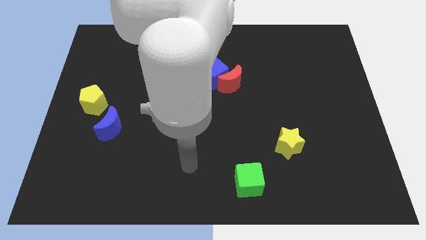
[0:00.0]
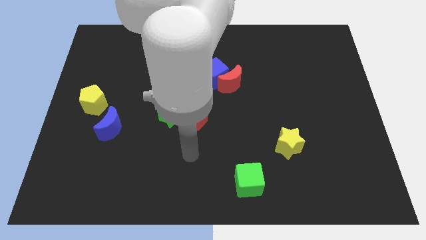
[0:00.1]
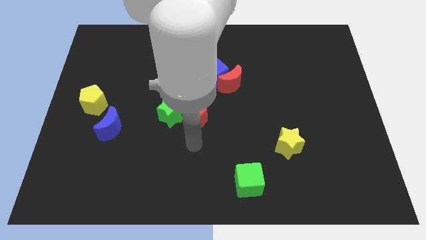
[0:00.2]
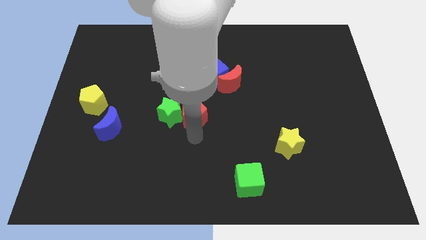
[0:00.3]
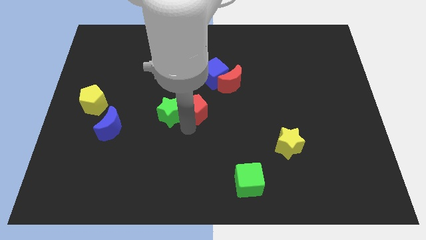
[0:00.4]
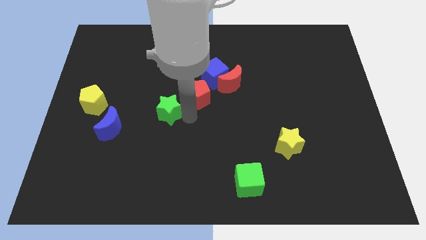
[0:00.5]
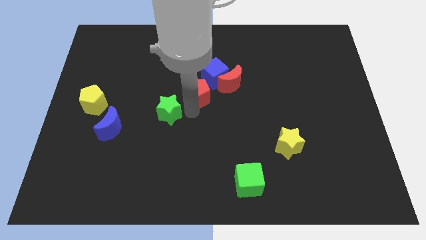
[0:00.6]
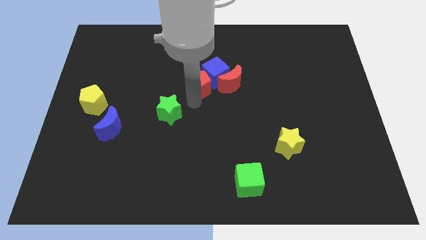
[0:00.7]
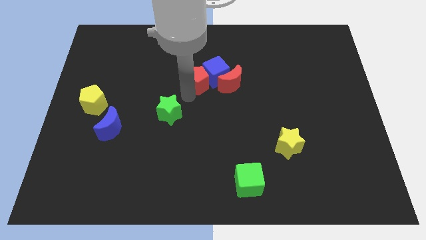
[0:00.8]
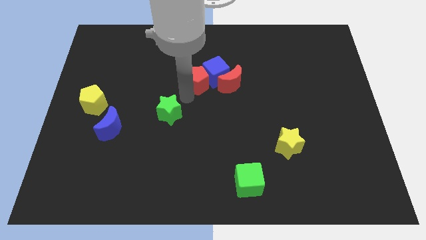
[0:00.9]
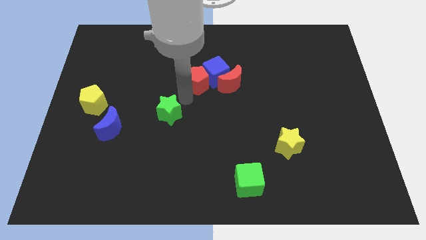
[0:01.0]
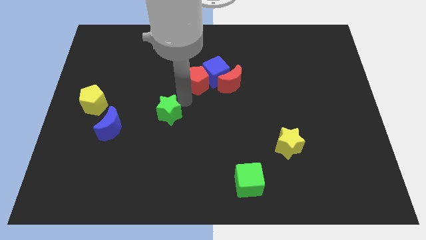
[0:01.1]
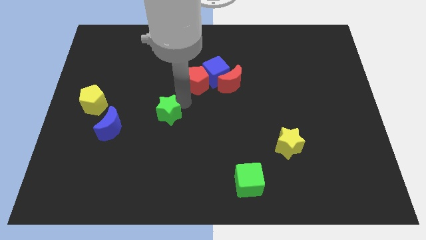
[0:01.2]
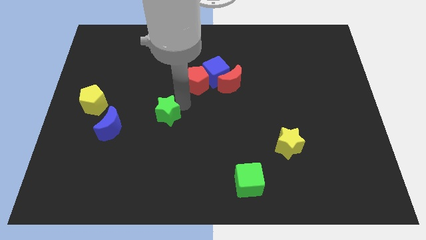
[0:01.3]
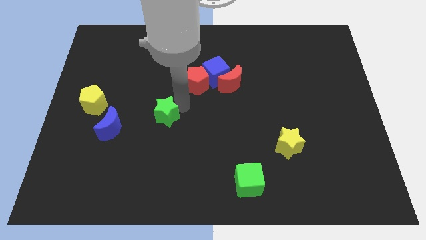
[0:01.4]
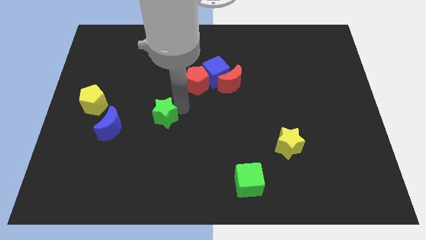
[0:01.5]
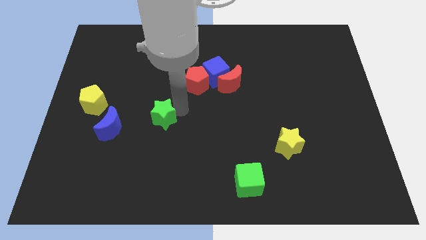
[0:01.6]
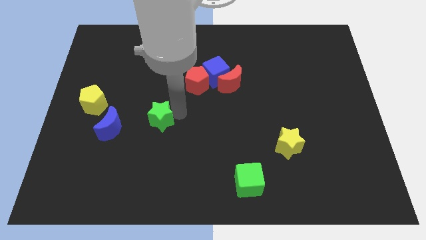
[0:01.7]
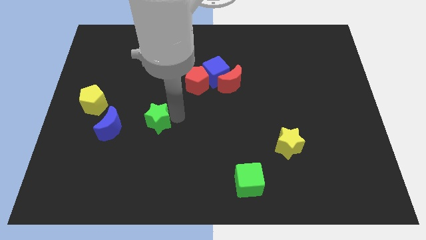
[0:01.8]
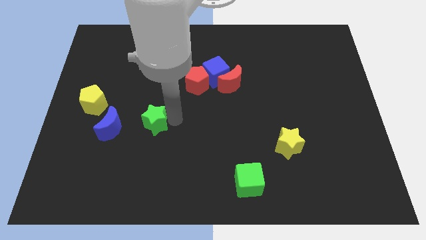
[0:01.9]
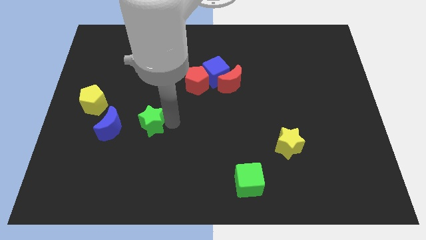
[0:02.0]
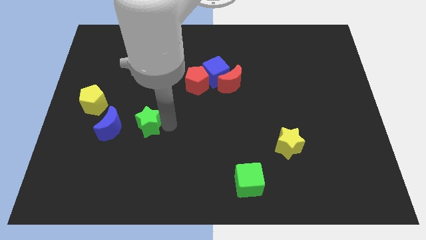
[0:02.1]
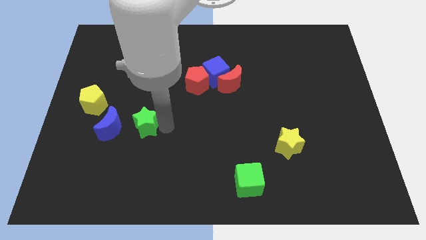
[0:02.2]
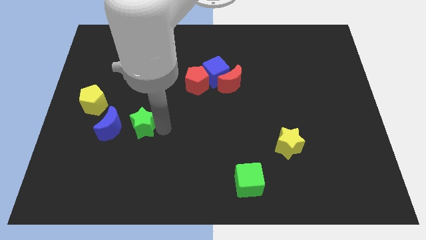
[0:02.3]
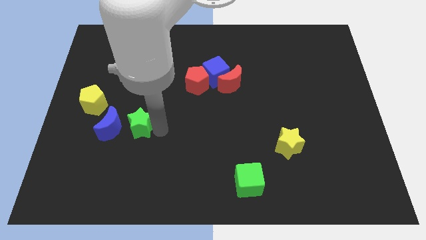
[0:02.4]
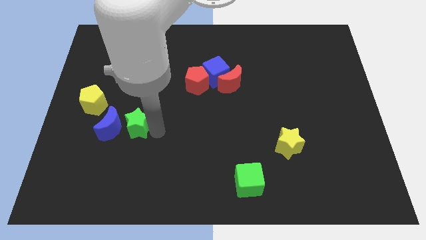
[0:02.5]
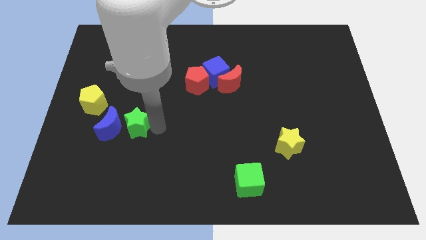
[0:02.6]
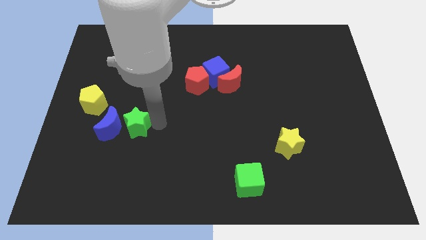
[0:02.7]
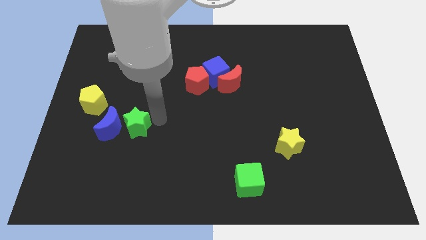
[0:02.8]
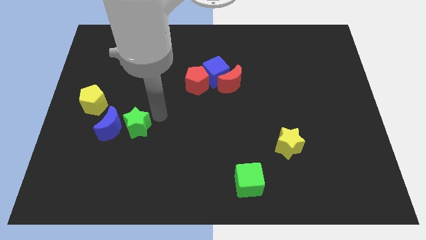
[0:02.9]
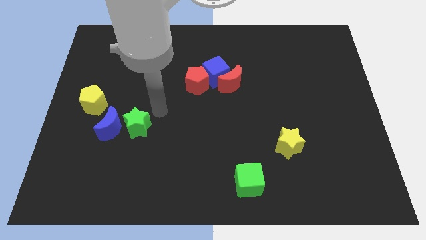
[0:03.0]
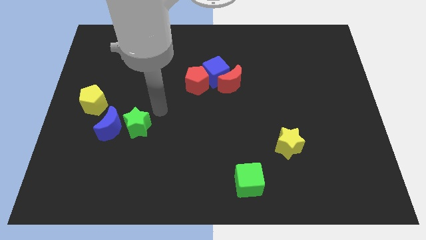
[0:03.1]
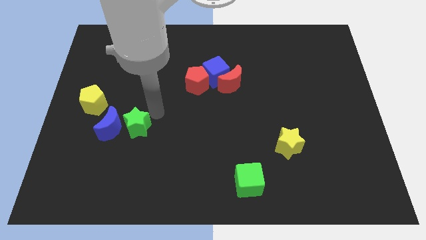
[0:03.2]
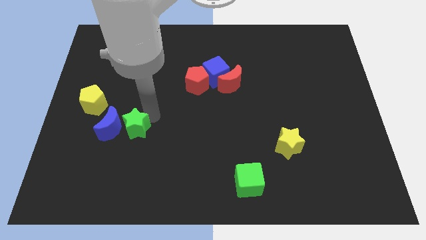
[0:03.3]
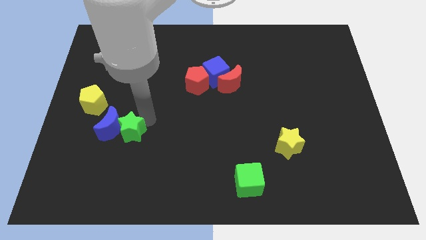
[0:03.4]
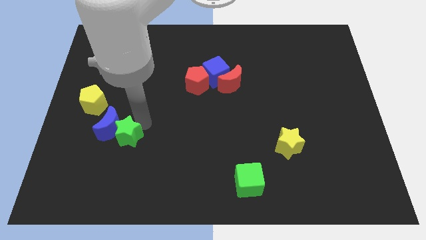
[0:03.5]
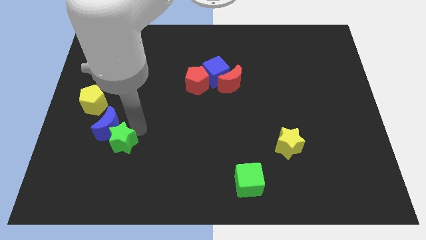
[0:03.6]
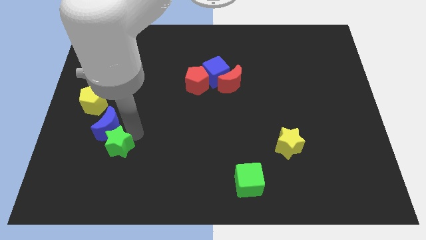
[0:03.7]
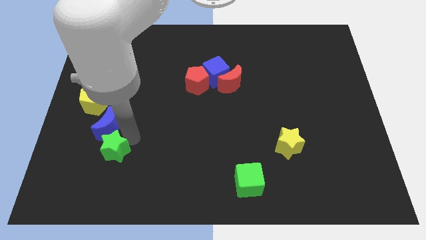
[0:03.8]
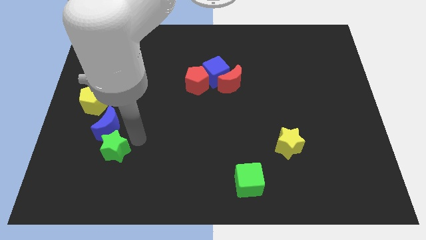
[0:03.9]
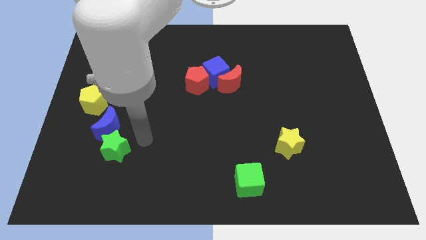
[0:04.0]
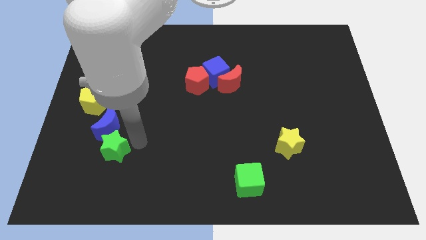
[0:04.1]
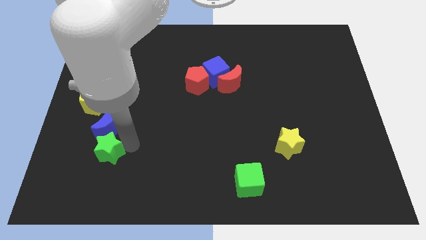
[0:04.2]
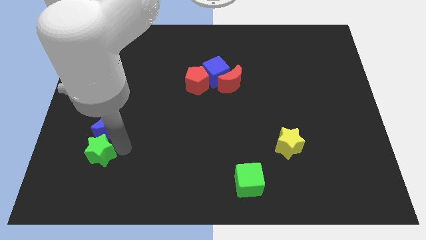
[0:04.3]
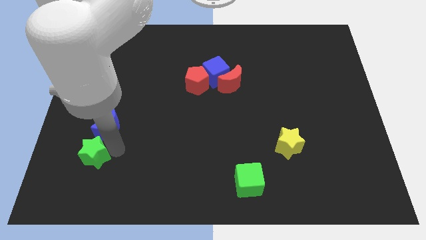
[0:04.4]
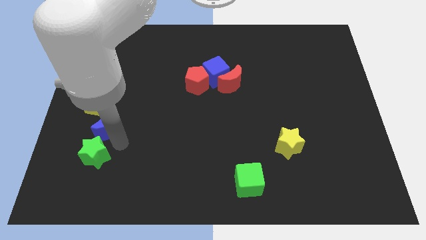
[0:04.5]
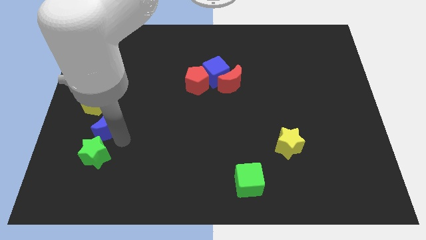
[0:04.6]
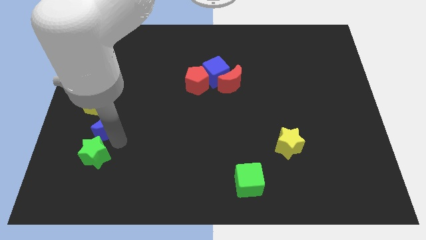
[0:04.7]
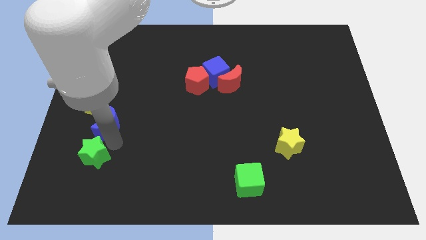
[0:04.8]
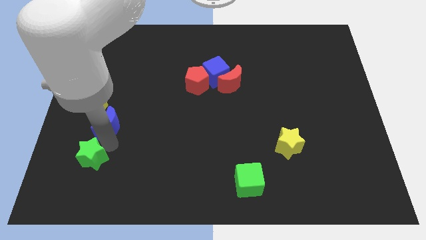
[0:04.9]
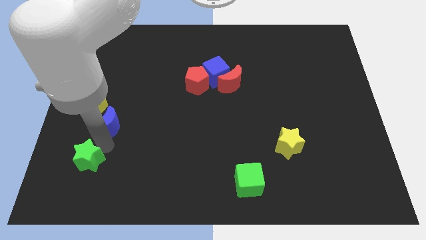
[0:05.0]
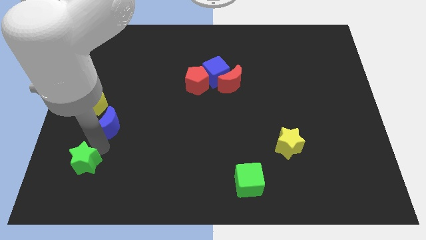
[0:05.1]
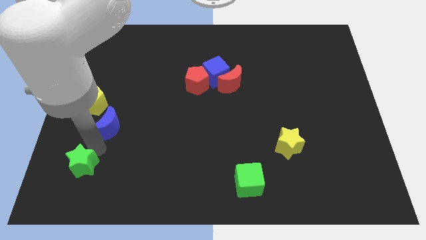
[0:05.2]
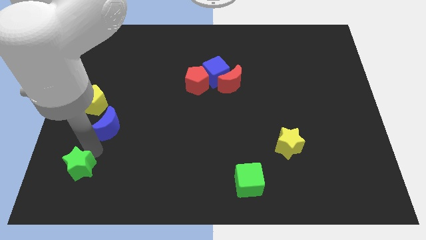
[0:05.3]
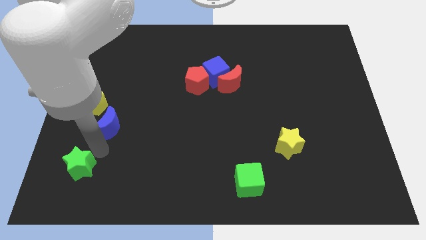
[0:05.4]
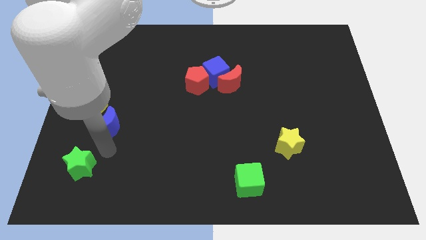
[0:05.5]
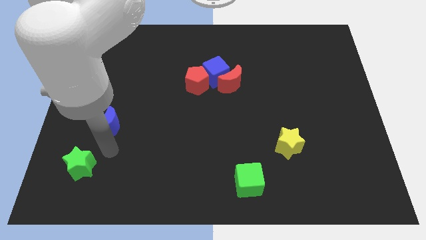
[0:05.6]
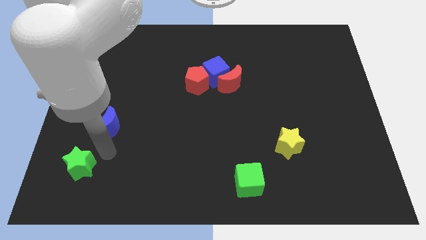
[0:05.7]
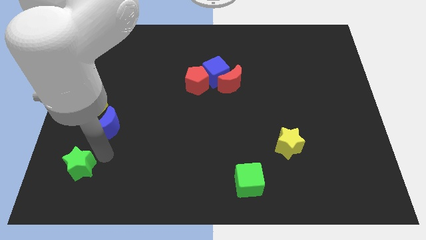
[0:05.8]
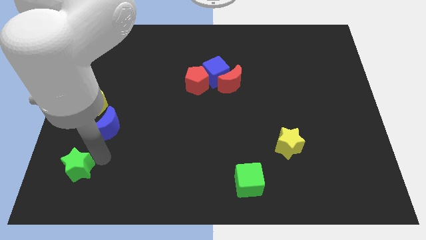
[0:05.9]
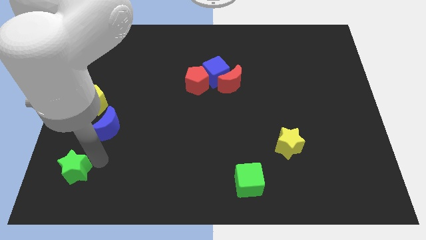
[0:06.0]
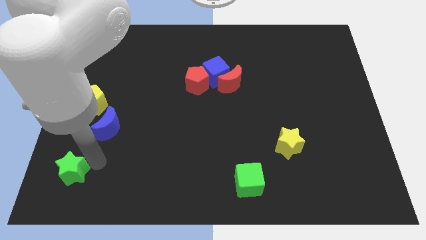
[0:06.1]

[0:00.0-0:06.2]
slide the green star to the bottom left corner

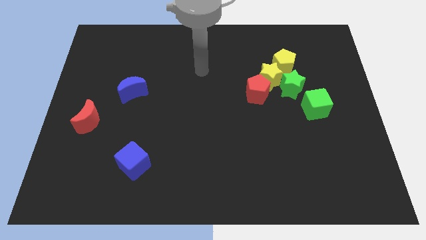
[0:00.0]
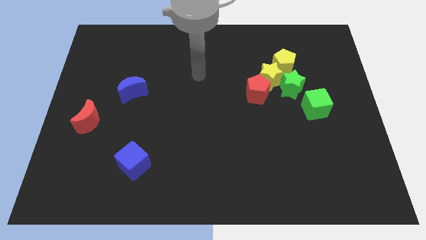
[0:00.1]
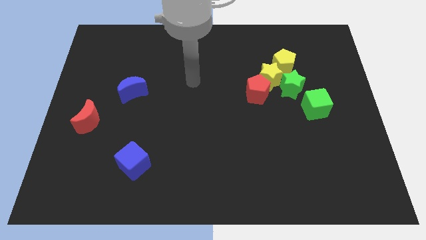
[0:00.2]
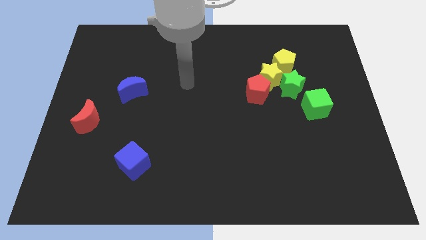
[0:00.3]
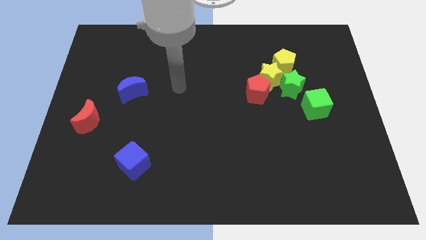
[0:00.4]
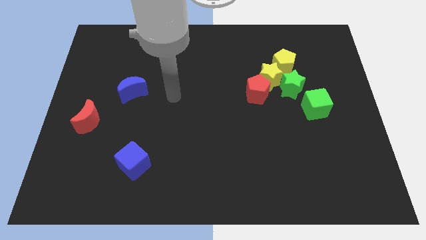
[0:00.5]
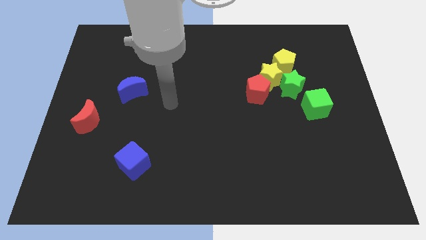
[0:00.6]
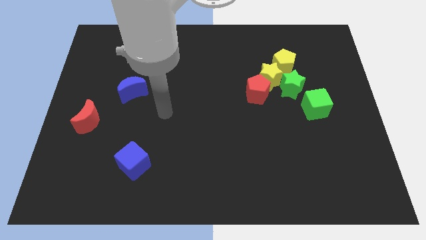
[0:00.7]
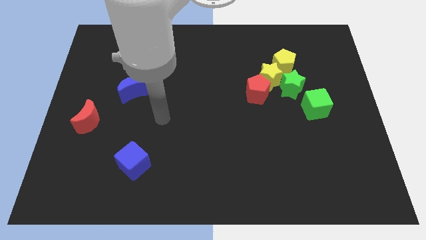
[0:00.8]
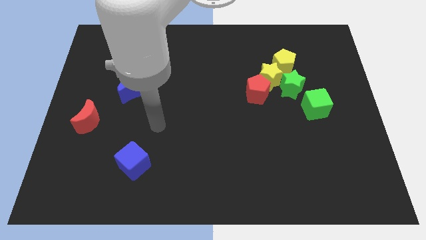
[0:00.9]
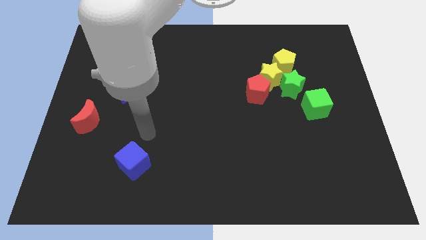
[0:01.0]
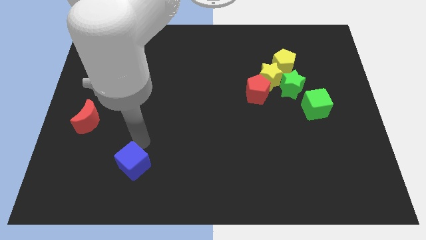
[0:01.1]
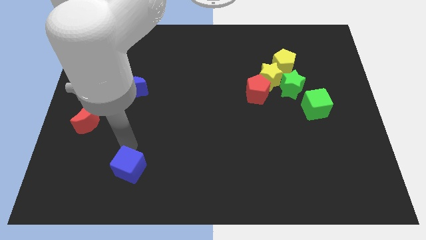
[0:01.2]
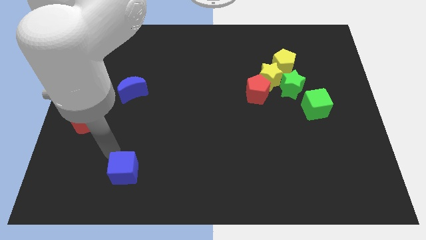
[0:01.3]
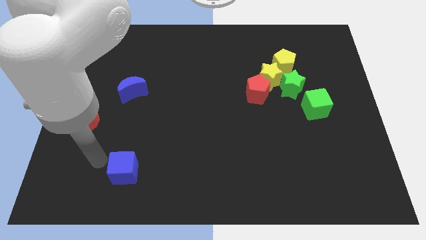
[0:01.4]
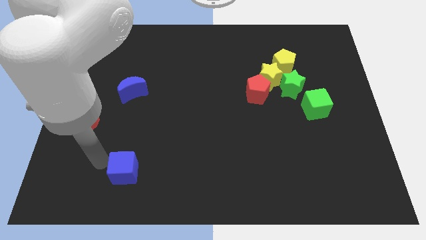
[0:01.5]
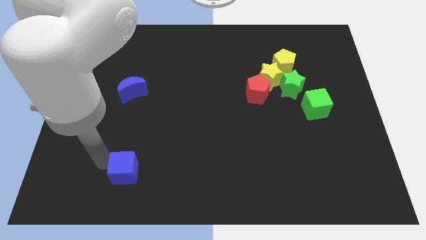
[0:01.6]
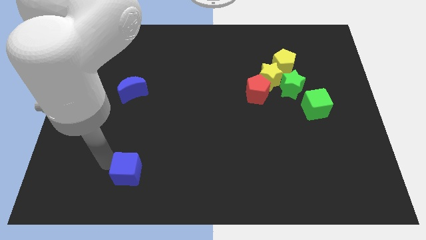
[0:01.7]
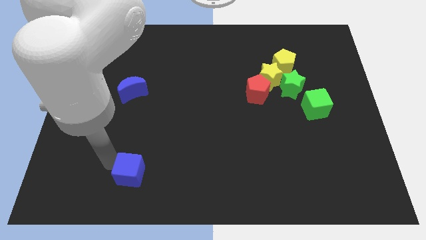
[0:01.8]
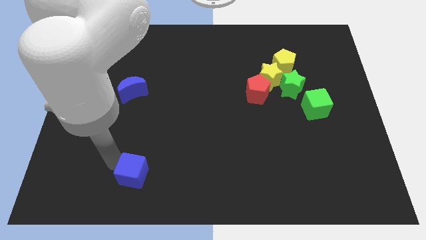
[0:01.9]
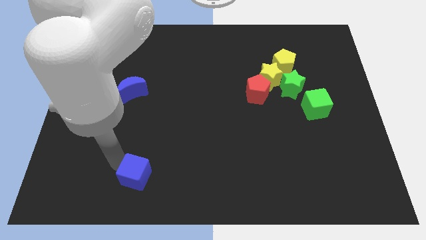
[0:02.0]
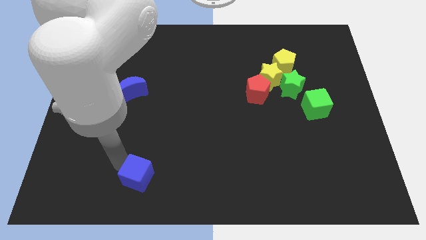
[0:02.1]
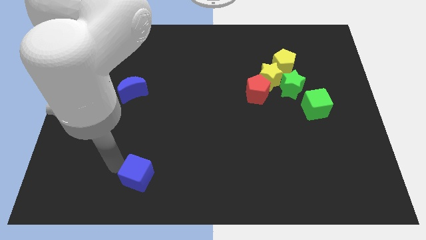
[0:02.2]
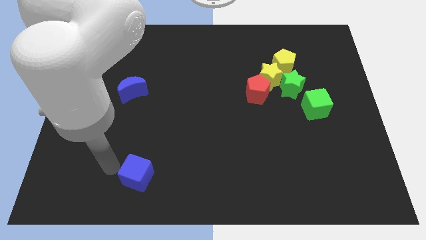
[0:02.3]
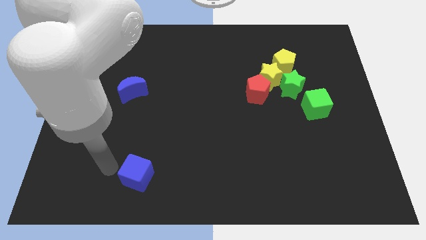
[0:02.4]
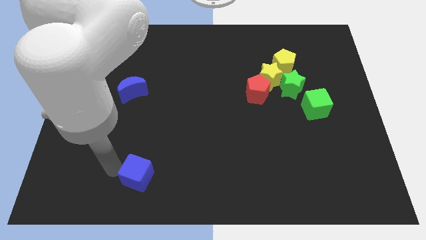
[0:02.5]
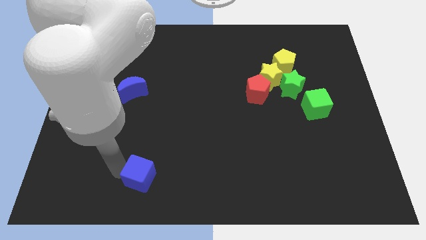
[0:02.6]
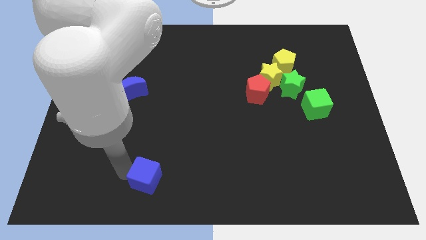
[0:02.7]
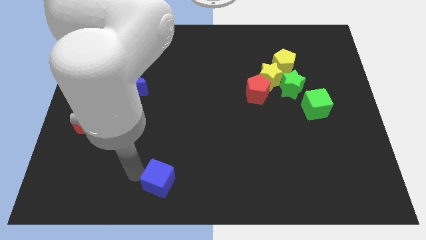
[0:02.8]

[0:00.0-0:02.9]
put the blue cube to the bottom
